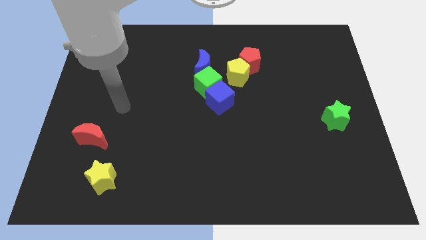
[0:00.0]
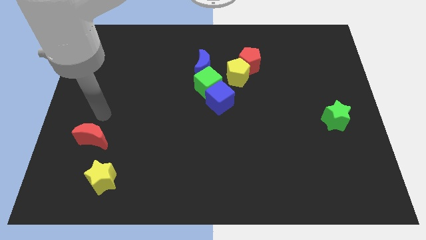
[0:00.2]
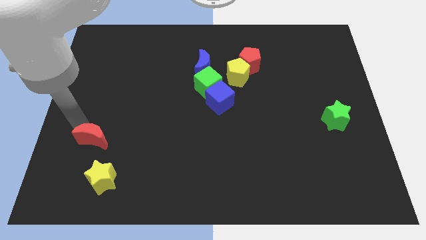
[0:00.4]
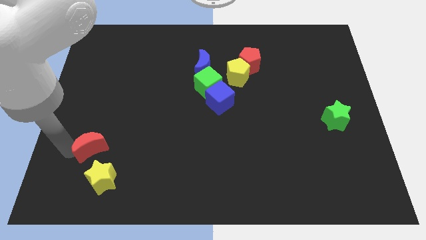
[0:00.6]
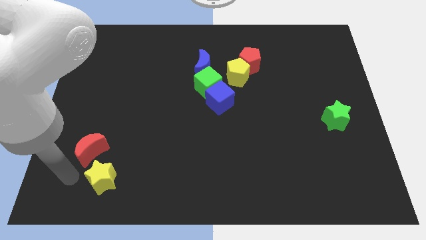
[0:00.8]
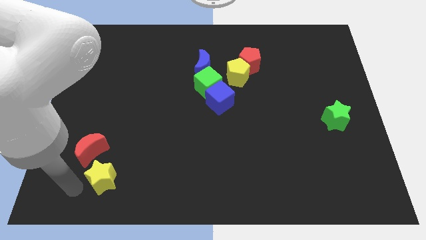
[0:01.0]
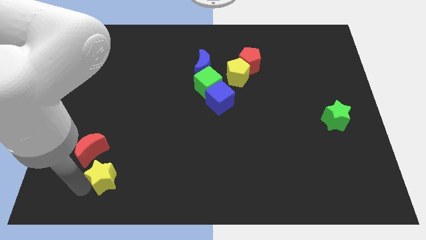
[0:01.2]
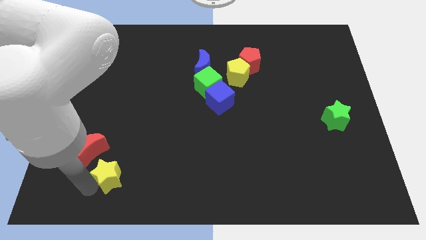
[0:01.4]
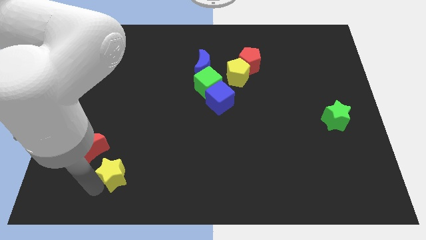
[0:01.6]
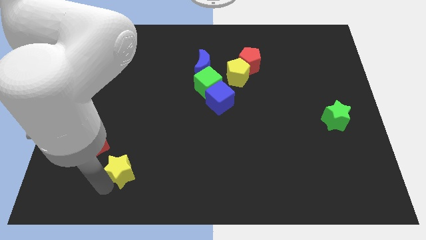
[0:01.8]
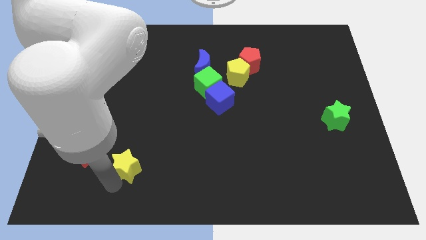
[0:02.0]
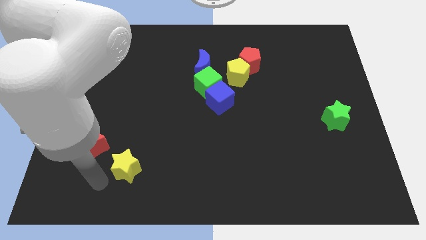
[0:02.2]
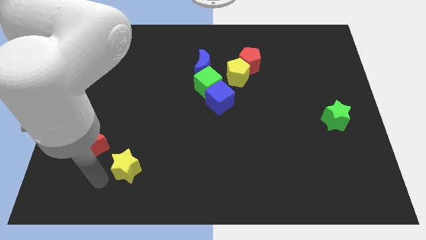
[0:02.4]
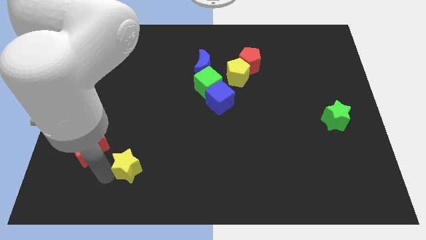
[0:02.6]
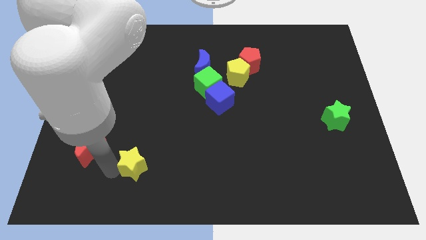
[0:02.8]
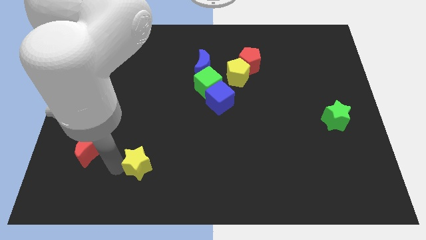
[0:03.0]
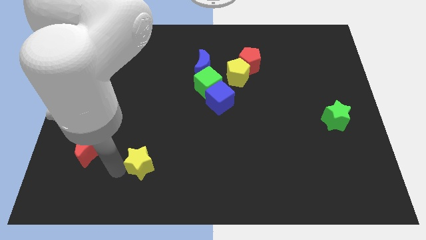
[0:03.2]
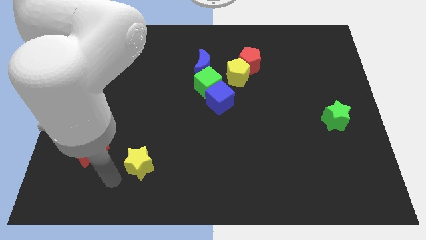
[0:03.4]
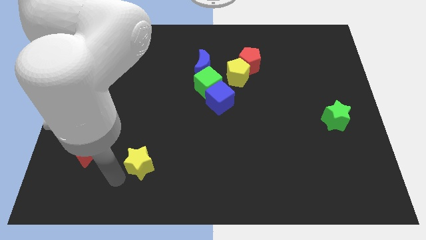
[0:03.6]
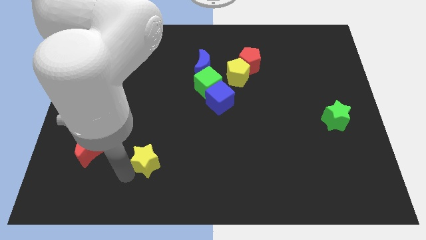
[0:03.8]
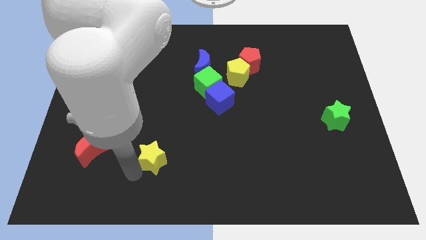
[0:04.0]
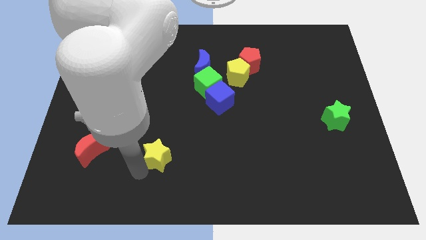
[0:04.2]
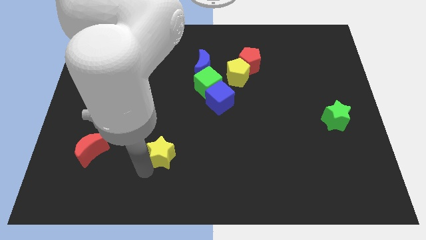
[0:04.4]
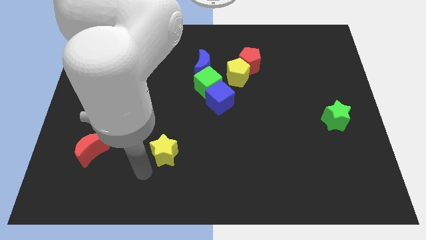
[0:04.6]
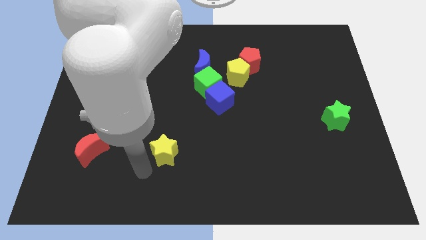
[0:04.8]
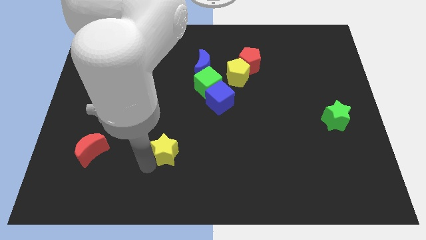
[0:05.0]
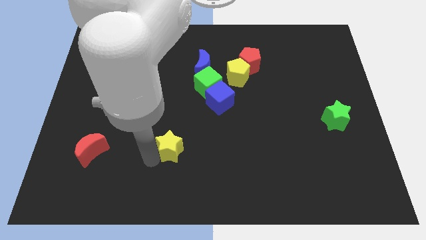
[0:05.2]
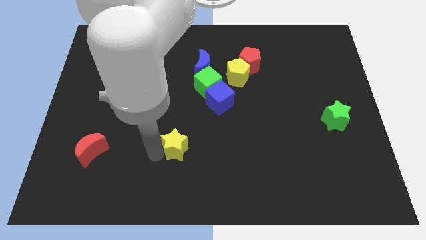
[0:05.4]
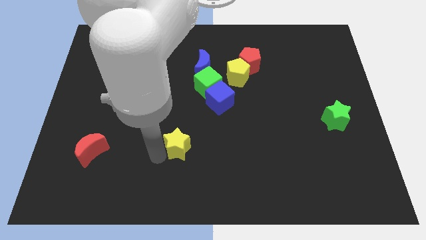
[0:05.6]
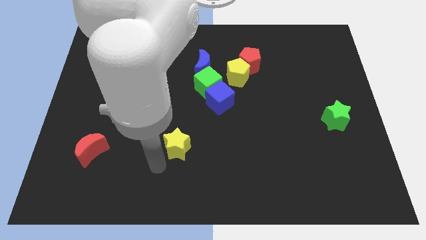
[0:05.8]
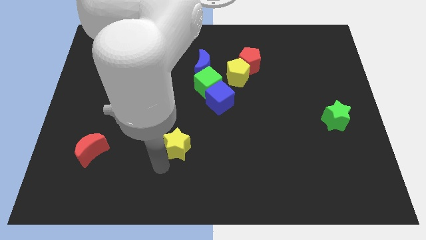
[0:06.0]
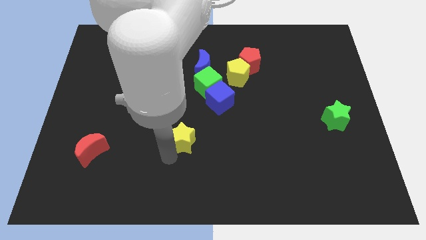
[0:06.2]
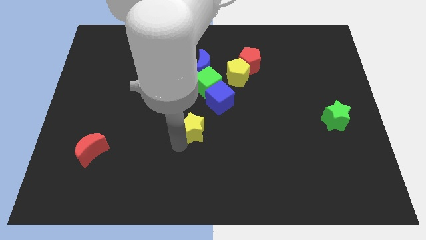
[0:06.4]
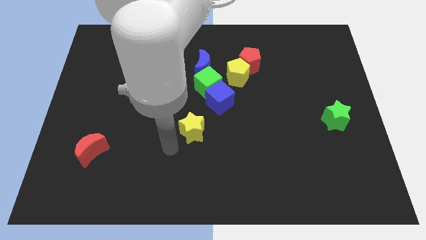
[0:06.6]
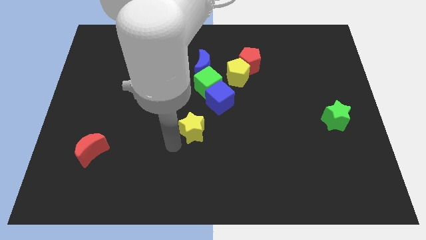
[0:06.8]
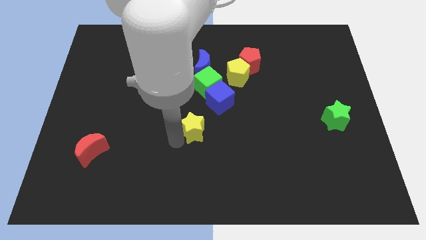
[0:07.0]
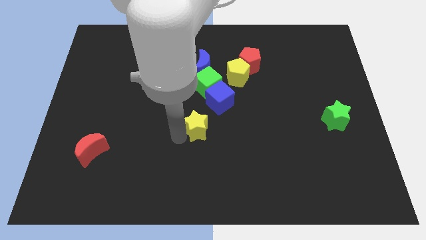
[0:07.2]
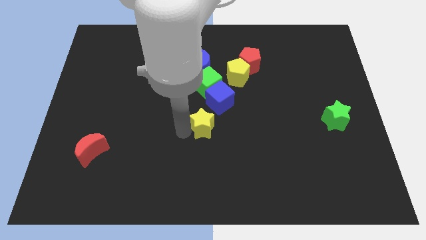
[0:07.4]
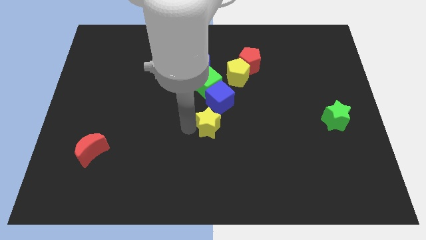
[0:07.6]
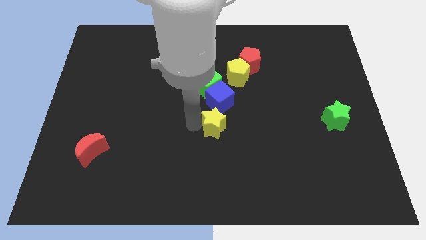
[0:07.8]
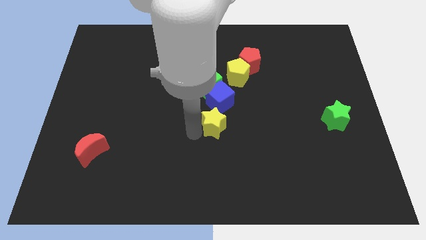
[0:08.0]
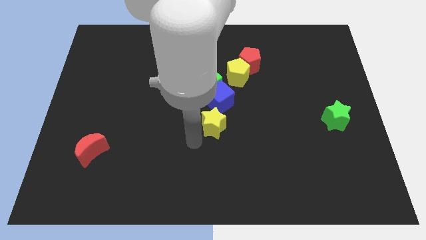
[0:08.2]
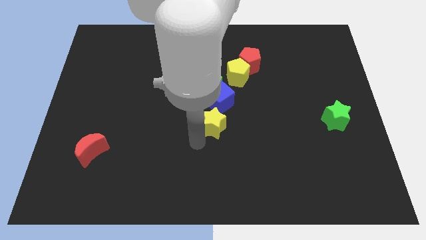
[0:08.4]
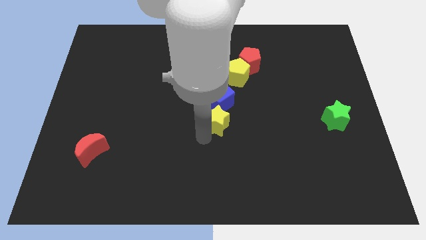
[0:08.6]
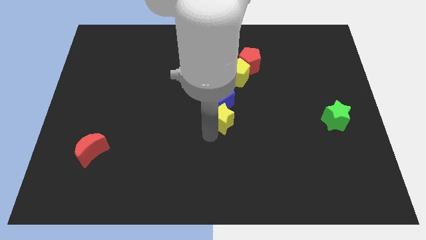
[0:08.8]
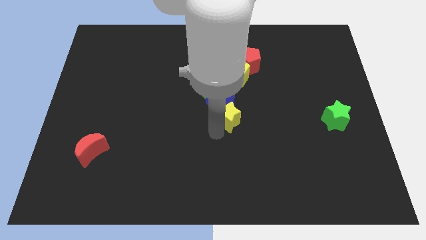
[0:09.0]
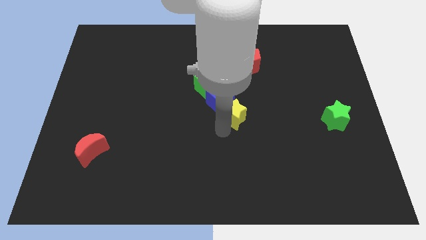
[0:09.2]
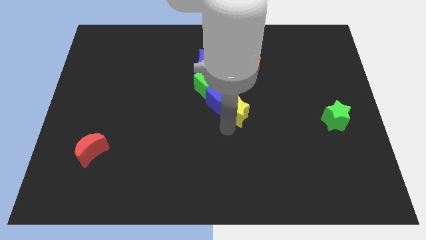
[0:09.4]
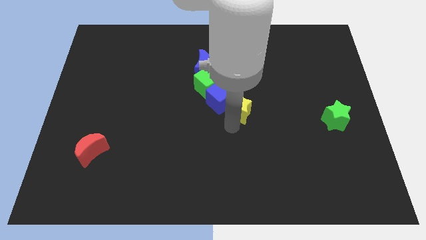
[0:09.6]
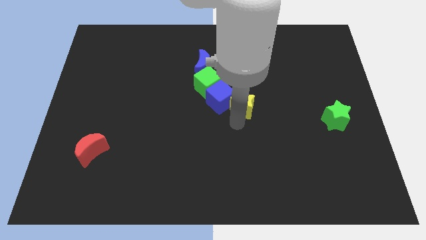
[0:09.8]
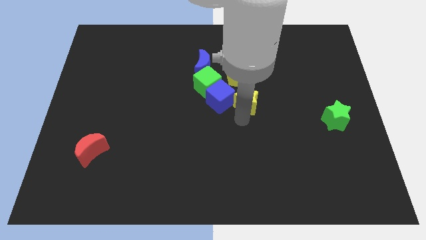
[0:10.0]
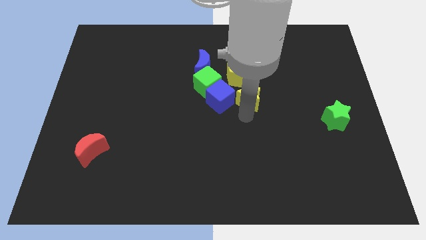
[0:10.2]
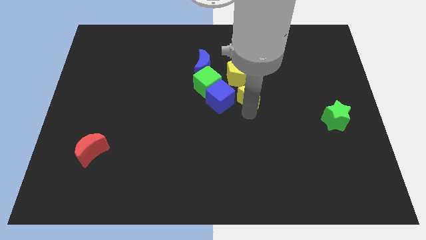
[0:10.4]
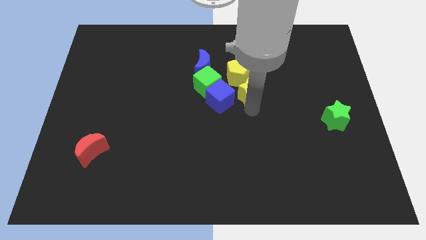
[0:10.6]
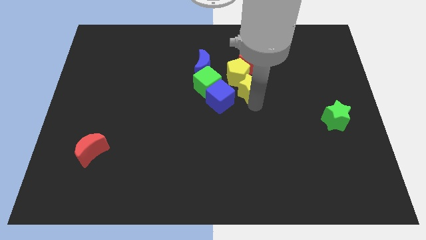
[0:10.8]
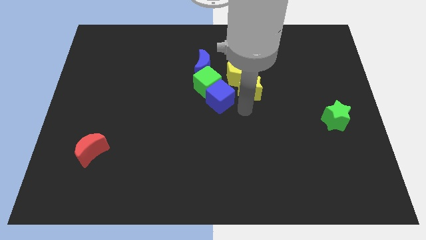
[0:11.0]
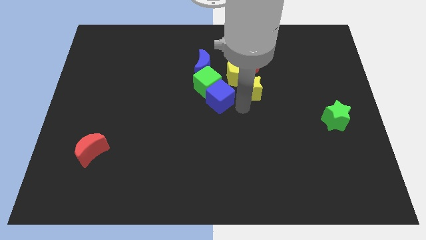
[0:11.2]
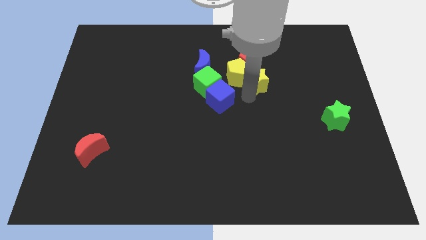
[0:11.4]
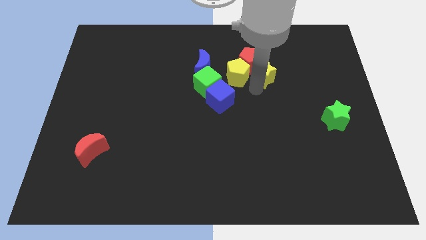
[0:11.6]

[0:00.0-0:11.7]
move the yellow star towards the red pentagon

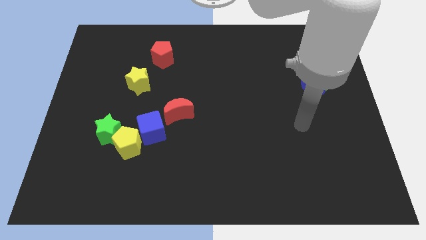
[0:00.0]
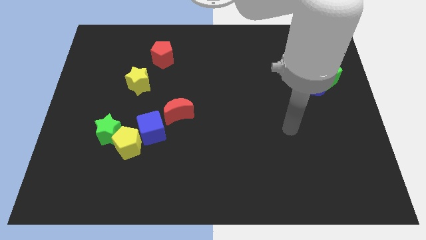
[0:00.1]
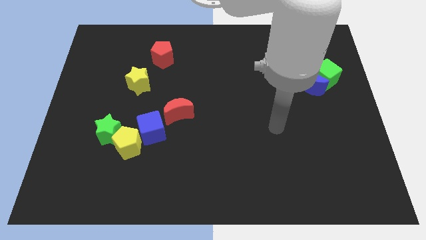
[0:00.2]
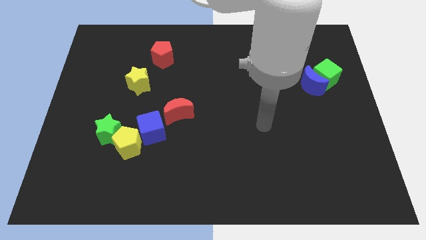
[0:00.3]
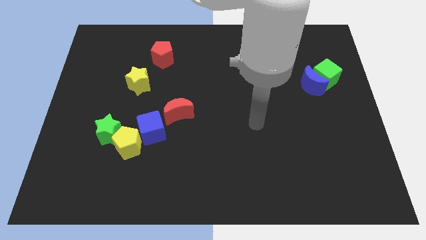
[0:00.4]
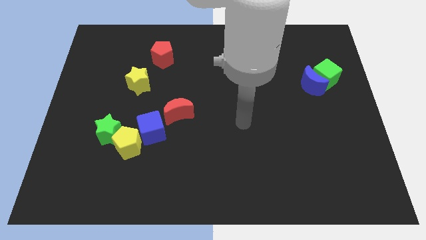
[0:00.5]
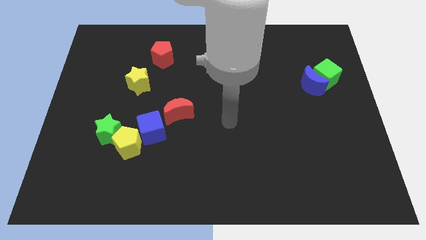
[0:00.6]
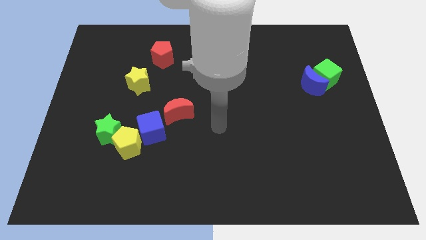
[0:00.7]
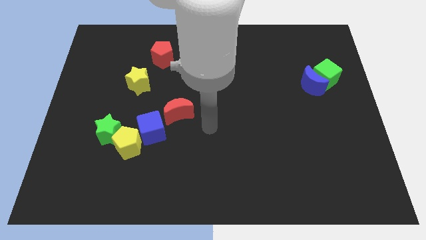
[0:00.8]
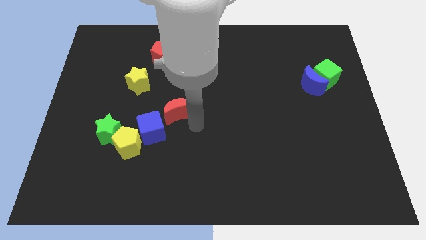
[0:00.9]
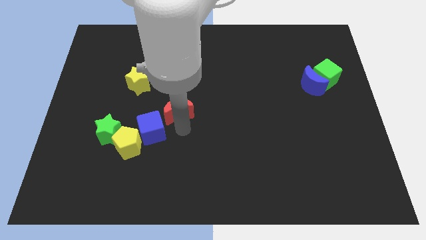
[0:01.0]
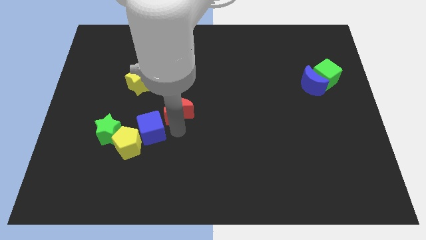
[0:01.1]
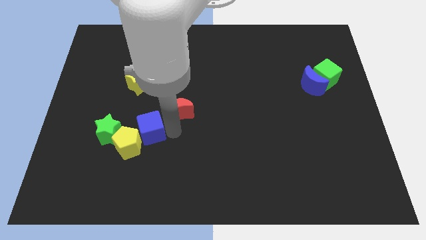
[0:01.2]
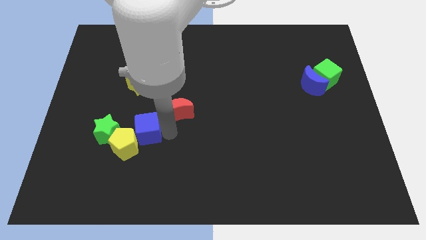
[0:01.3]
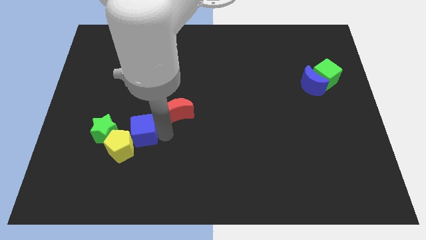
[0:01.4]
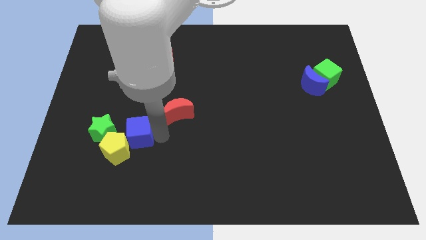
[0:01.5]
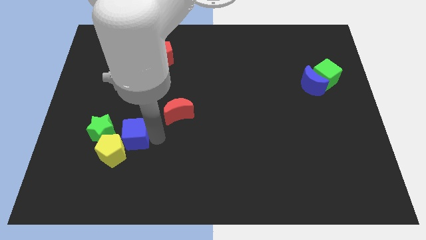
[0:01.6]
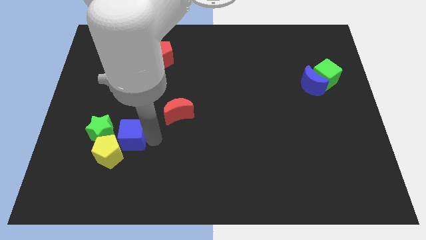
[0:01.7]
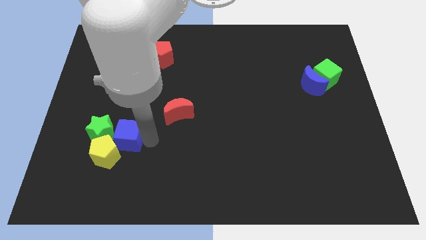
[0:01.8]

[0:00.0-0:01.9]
push the blue cube next to the green star

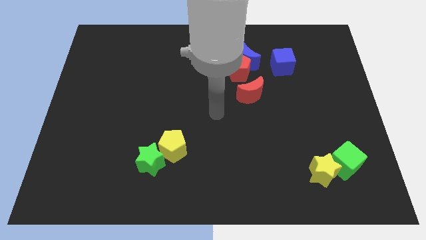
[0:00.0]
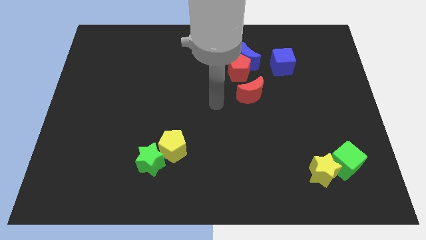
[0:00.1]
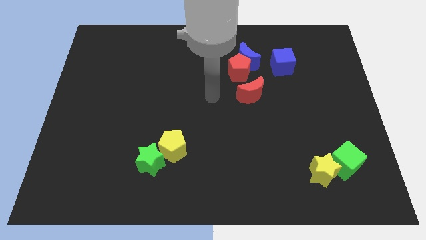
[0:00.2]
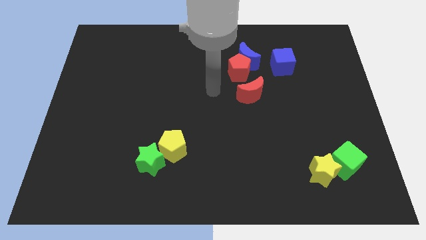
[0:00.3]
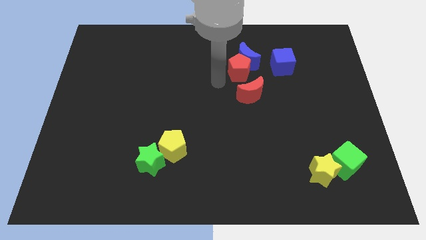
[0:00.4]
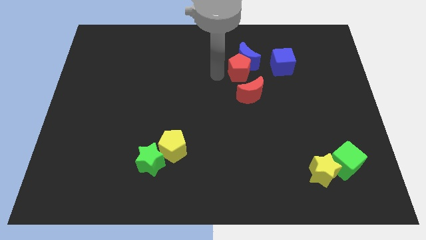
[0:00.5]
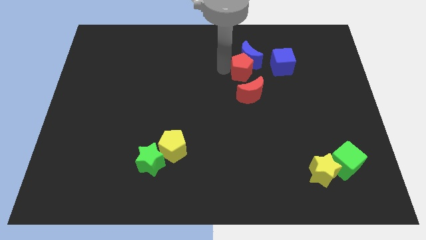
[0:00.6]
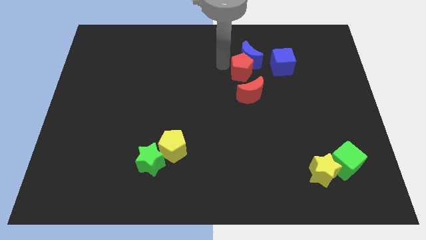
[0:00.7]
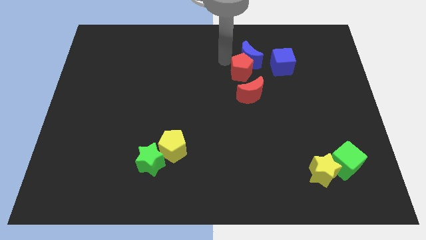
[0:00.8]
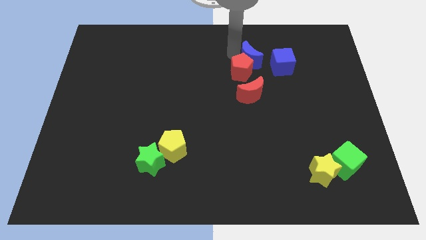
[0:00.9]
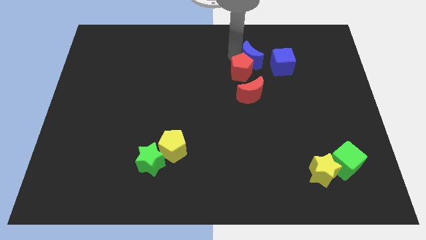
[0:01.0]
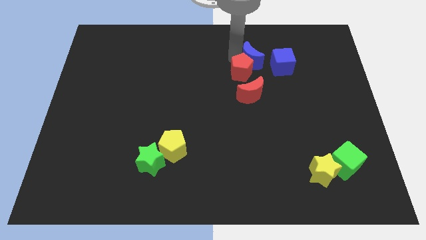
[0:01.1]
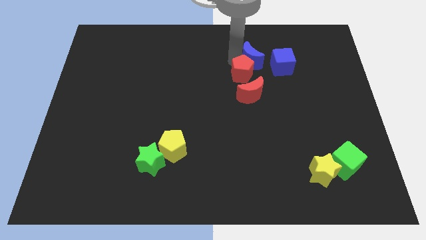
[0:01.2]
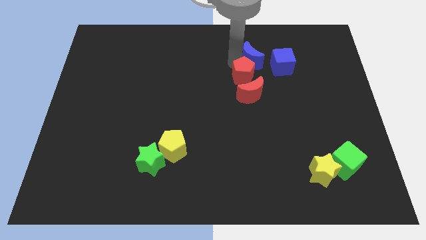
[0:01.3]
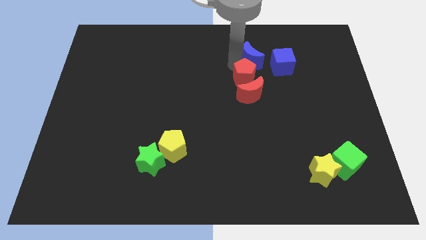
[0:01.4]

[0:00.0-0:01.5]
push the red pentagon next to the red moon
